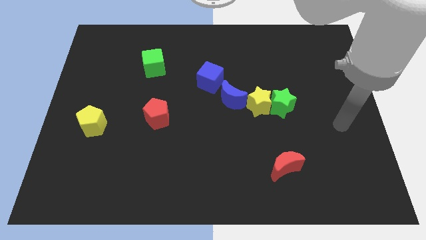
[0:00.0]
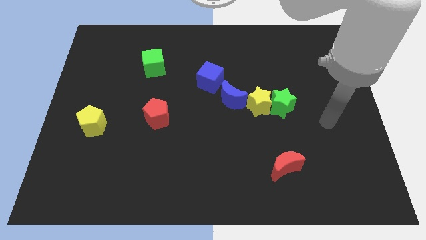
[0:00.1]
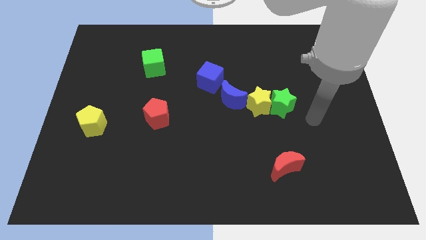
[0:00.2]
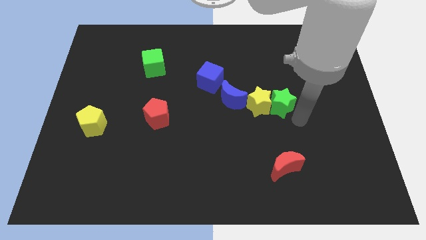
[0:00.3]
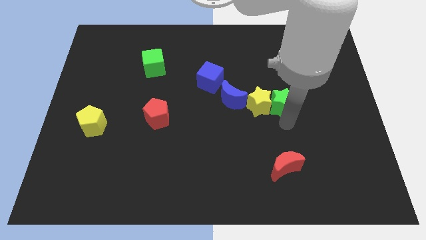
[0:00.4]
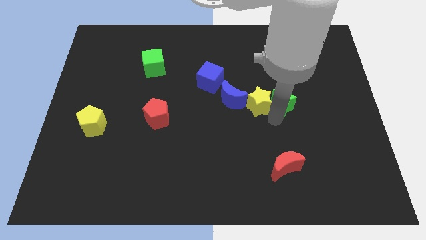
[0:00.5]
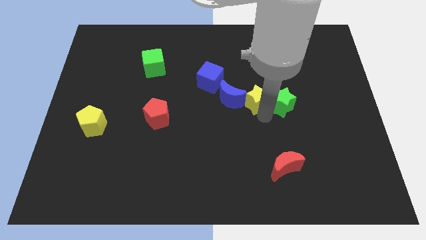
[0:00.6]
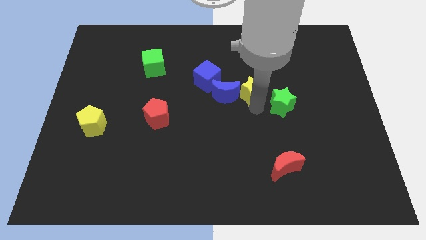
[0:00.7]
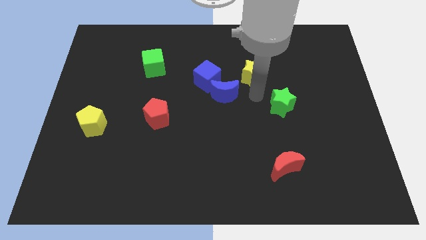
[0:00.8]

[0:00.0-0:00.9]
pull the green star apart from the yellow star

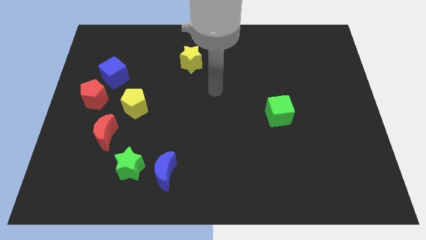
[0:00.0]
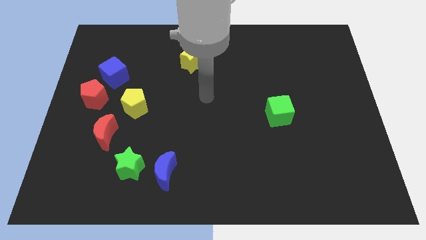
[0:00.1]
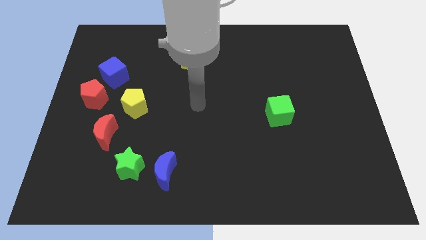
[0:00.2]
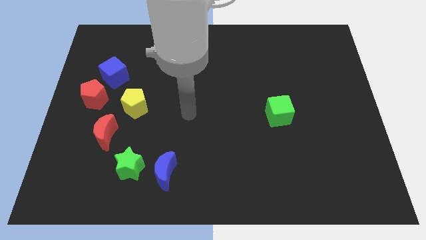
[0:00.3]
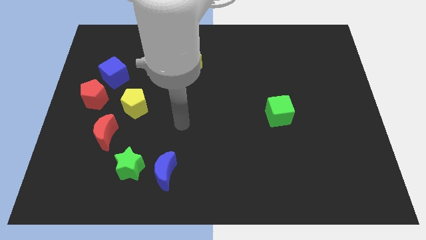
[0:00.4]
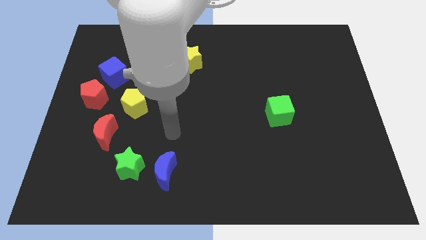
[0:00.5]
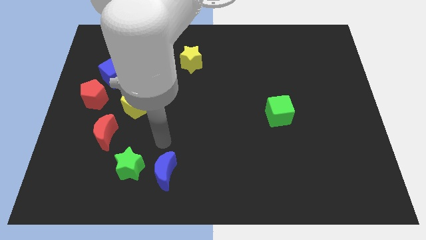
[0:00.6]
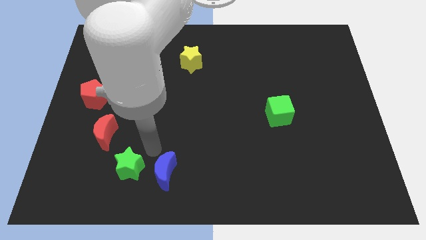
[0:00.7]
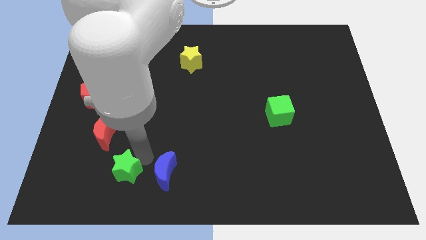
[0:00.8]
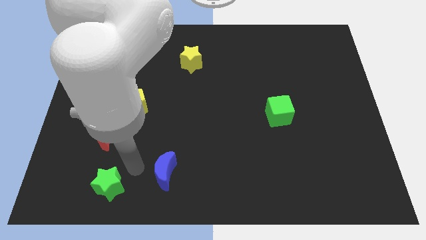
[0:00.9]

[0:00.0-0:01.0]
pull the blue moon apart from the green star

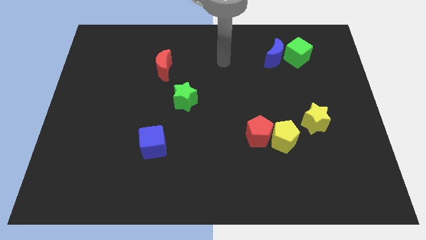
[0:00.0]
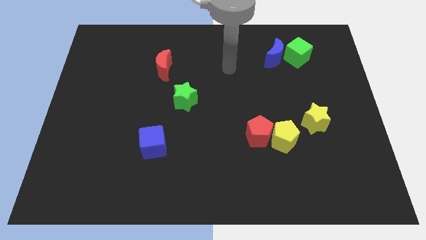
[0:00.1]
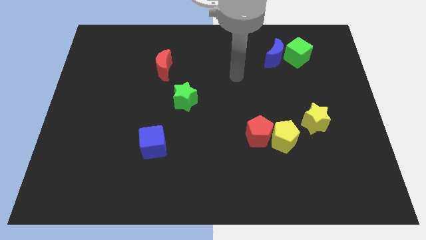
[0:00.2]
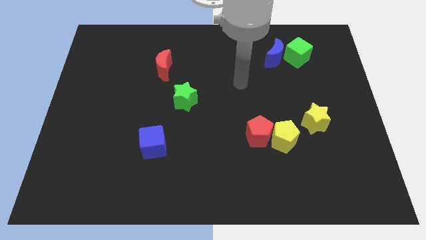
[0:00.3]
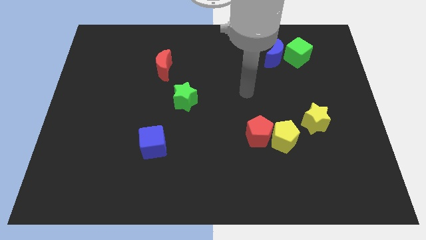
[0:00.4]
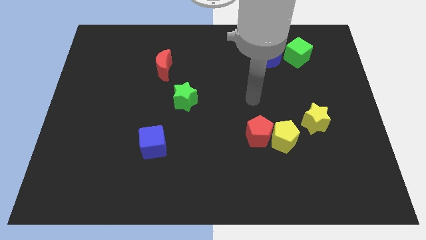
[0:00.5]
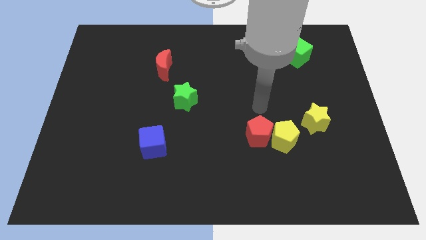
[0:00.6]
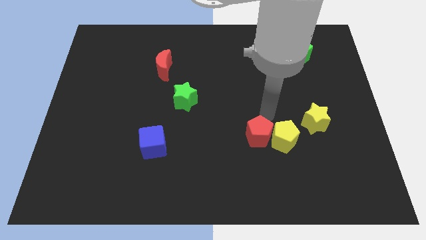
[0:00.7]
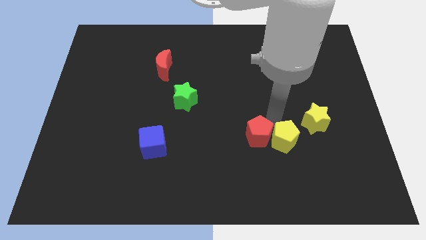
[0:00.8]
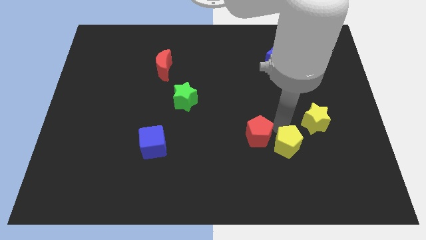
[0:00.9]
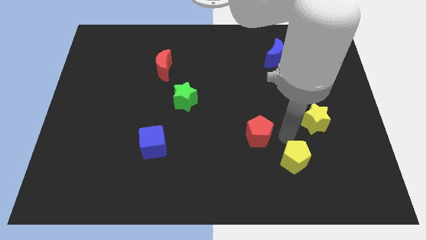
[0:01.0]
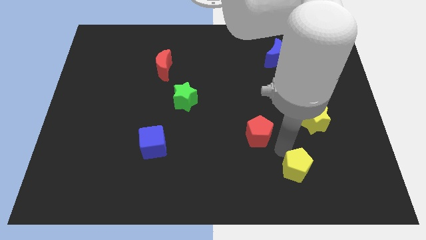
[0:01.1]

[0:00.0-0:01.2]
move the red pentagon away from the yellow pentagon

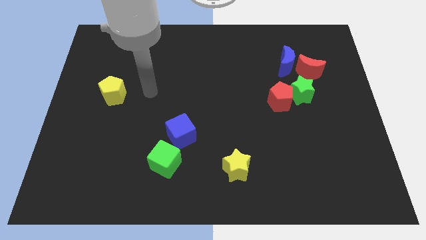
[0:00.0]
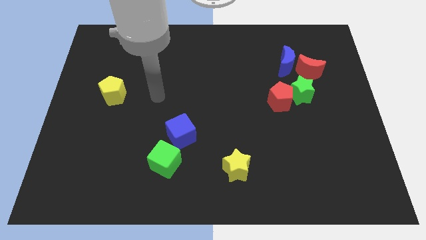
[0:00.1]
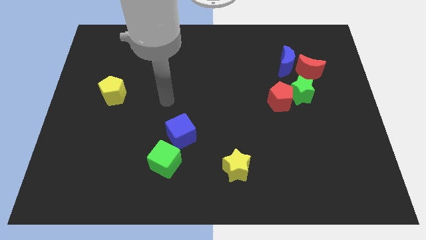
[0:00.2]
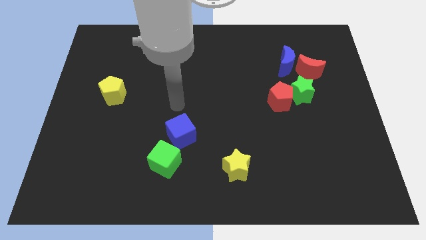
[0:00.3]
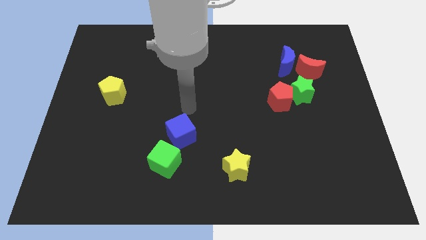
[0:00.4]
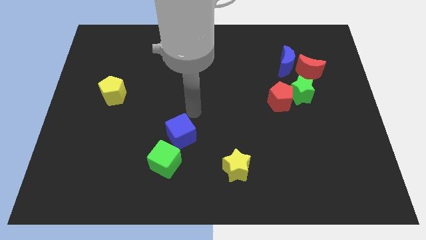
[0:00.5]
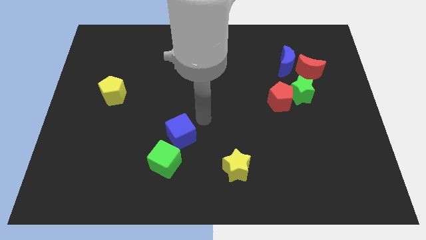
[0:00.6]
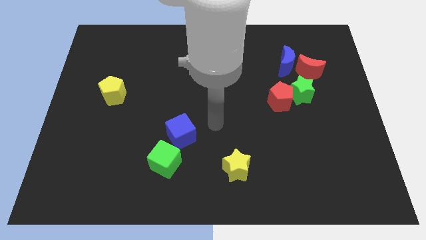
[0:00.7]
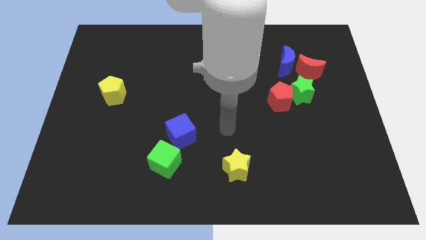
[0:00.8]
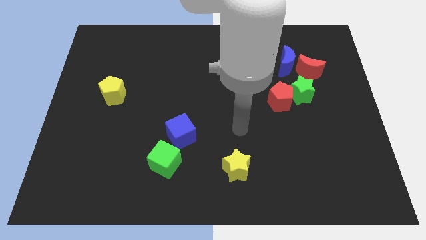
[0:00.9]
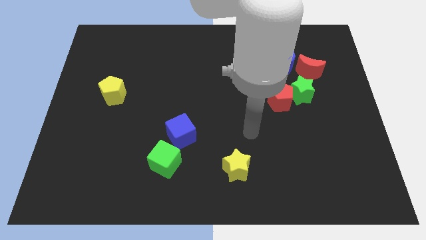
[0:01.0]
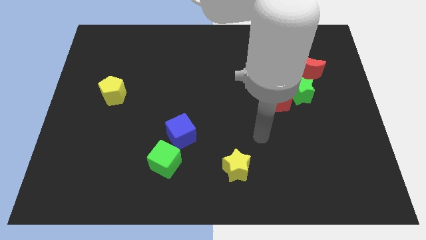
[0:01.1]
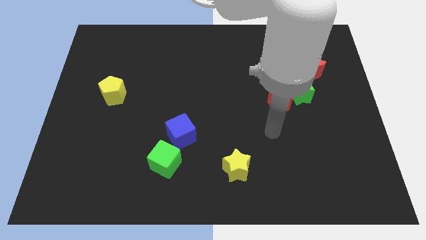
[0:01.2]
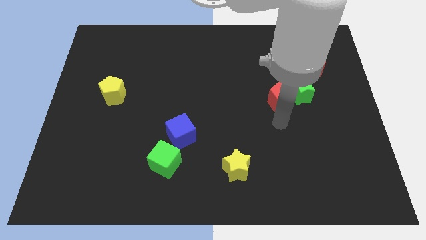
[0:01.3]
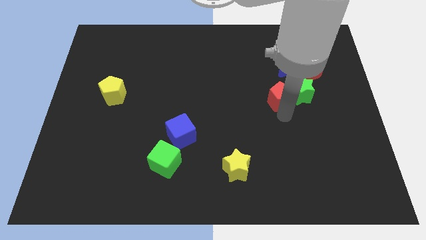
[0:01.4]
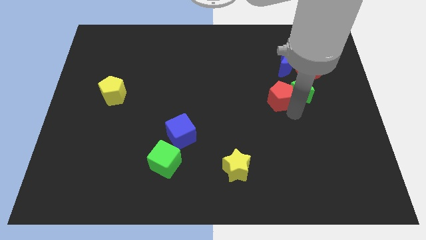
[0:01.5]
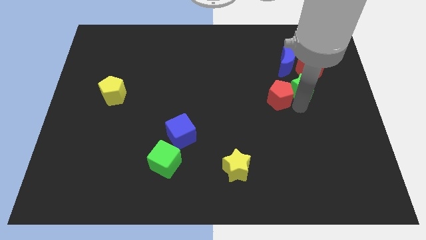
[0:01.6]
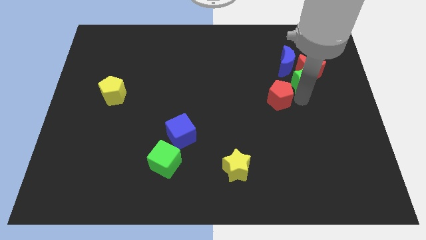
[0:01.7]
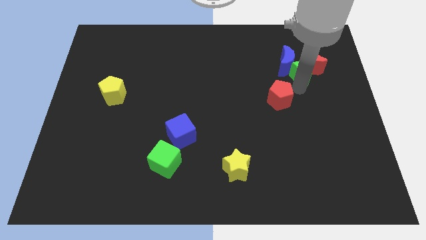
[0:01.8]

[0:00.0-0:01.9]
move the red pentagon away from the green star

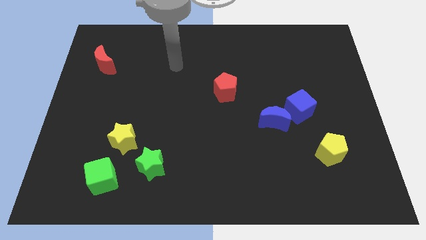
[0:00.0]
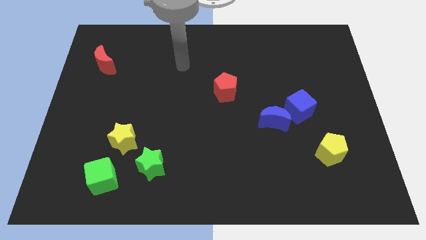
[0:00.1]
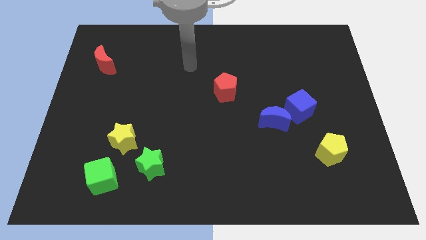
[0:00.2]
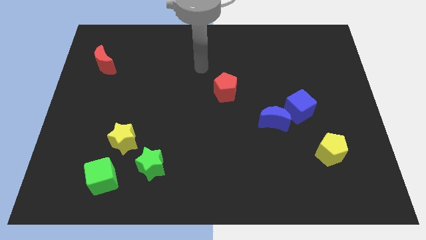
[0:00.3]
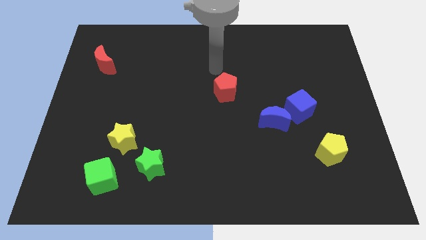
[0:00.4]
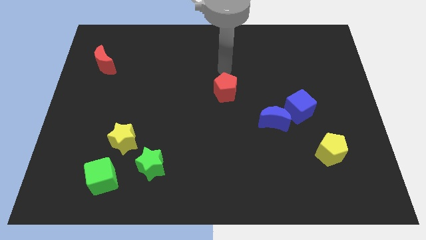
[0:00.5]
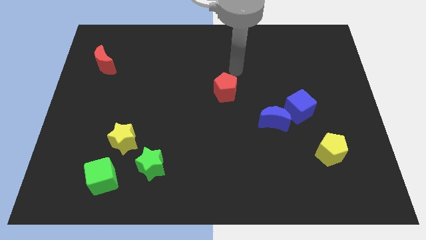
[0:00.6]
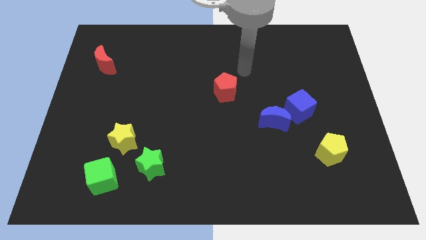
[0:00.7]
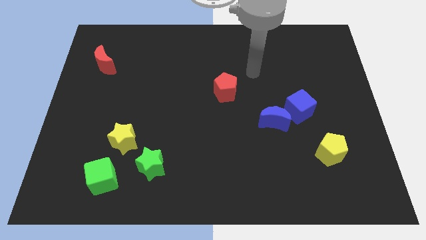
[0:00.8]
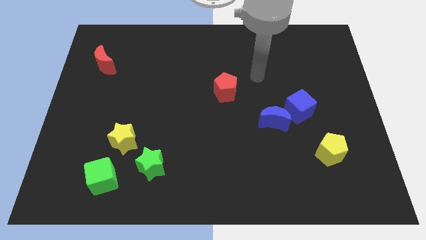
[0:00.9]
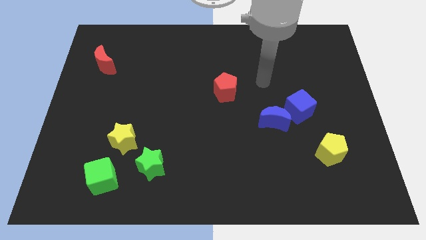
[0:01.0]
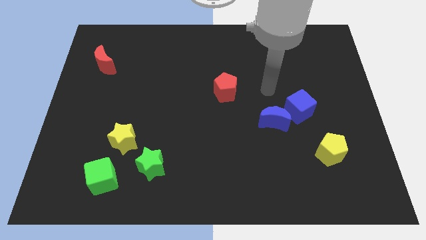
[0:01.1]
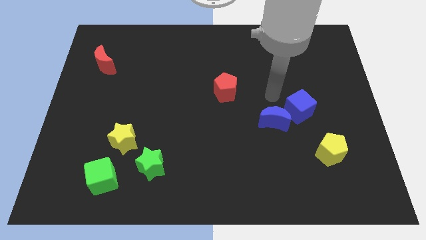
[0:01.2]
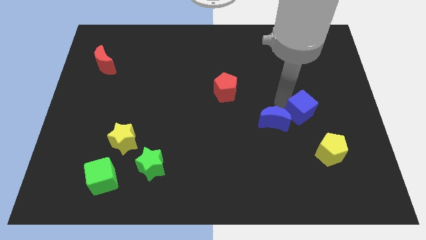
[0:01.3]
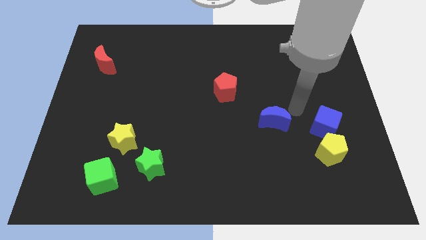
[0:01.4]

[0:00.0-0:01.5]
separate the blue moon from the blue cube

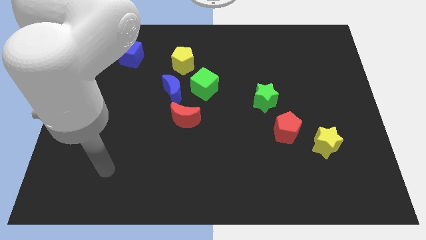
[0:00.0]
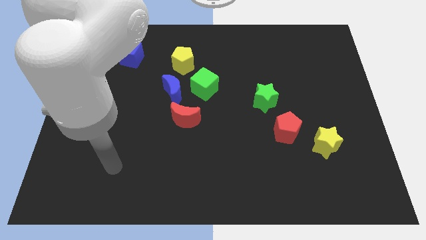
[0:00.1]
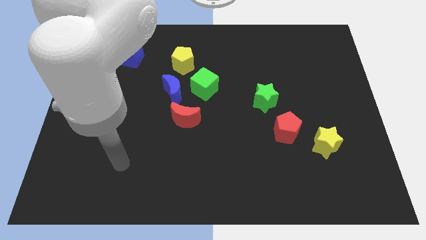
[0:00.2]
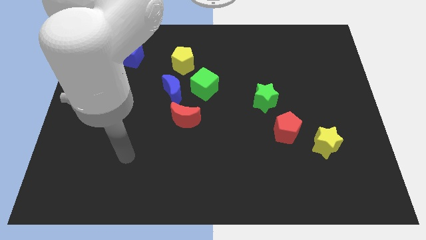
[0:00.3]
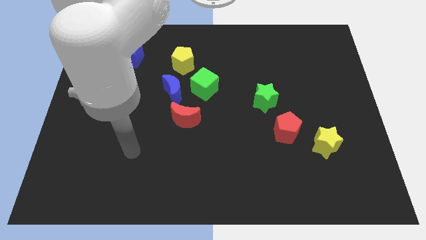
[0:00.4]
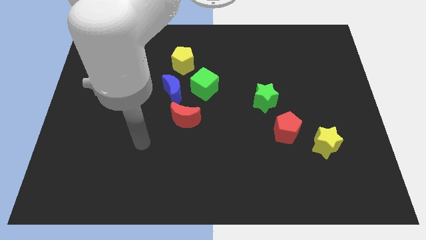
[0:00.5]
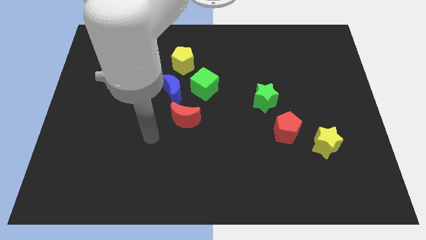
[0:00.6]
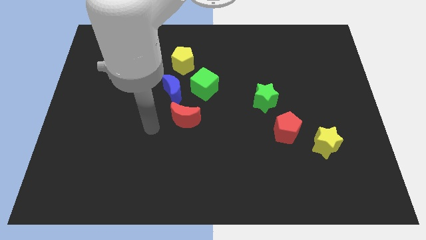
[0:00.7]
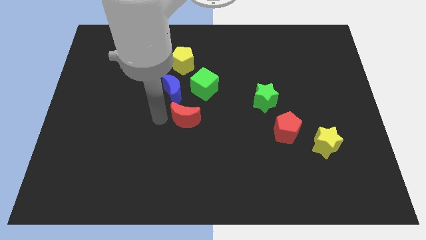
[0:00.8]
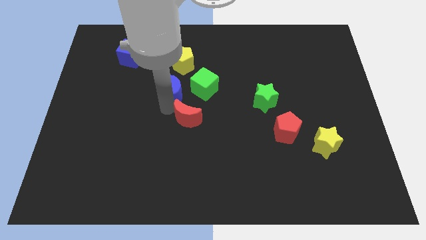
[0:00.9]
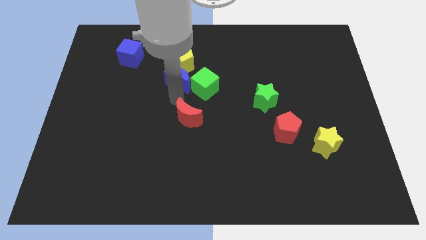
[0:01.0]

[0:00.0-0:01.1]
move the red moon away from the blue moon

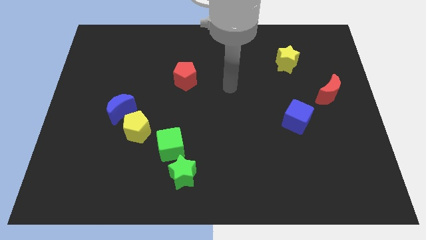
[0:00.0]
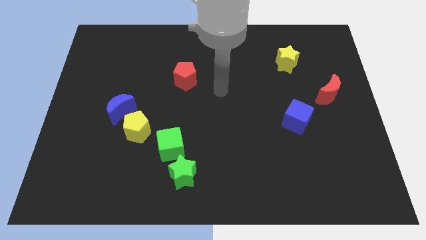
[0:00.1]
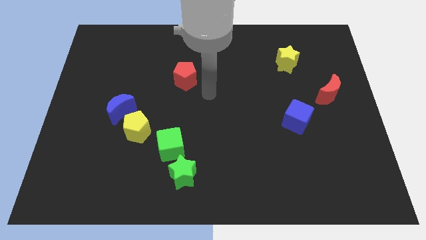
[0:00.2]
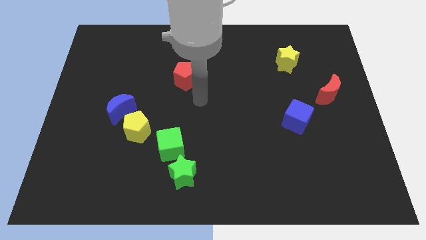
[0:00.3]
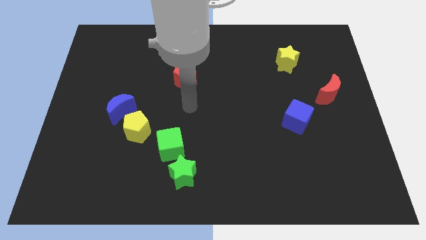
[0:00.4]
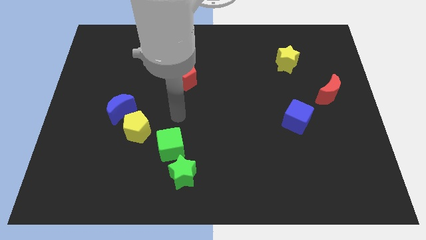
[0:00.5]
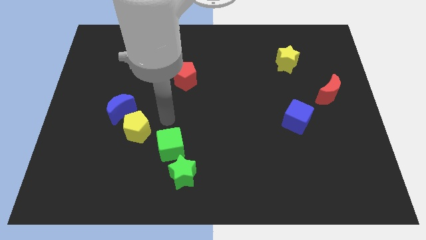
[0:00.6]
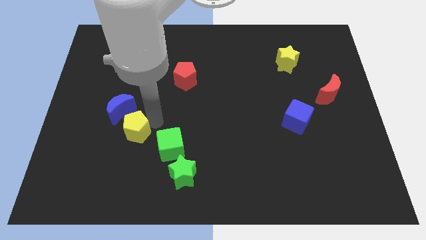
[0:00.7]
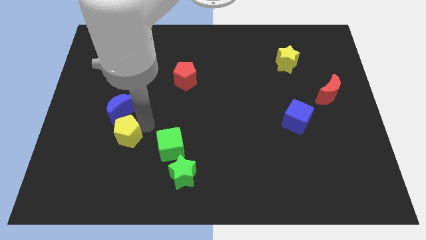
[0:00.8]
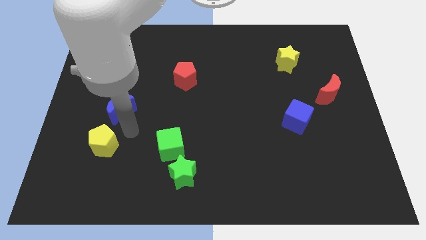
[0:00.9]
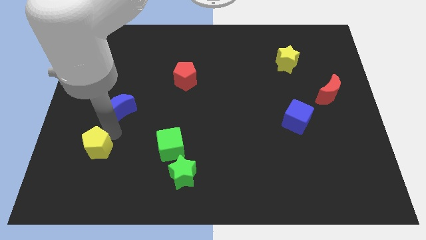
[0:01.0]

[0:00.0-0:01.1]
pull the blue moon apart from the yellow pentagon

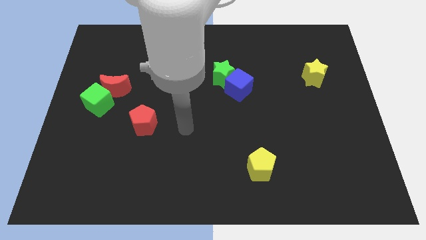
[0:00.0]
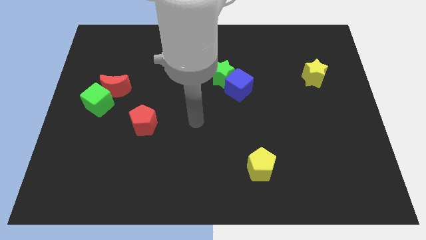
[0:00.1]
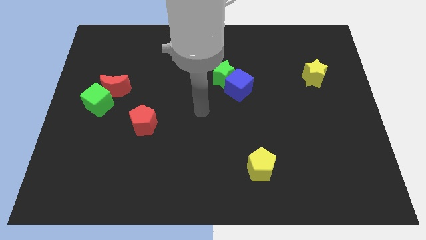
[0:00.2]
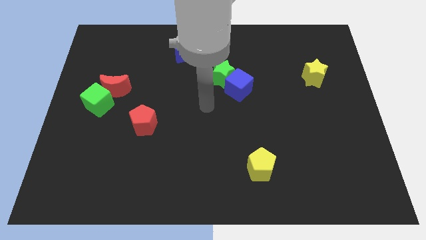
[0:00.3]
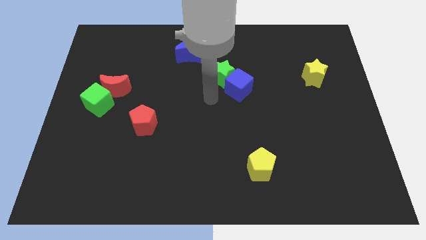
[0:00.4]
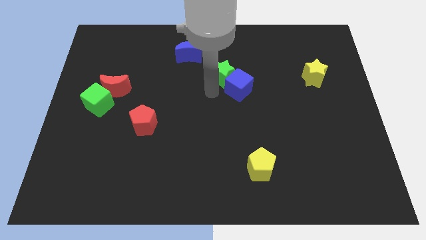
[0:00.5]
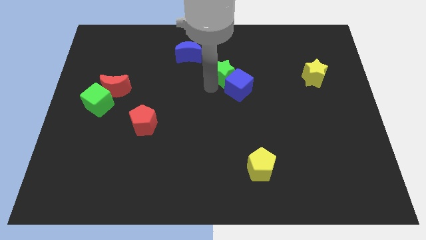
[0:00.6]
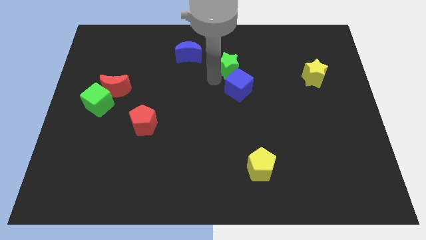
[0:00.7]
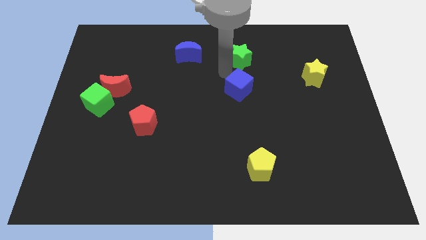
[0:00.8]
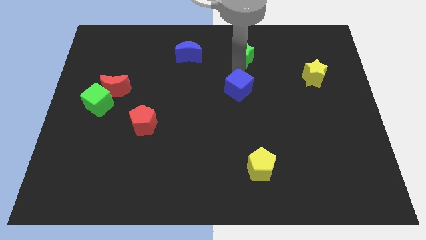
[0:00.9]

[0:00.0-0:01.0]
separate the blue cube from the green star
